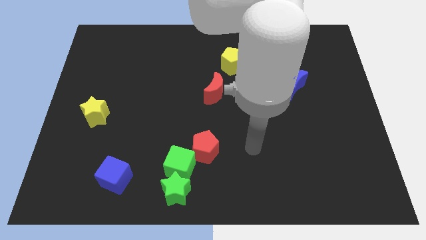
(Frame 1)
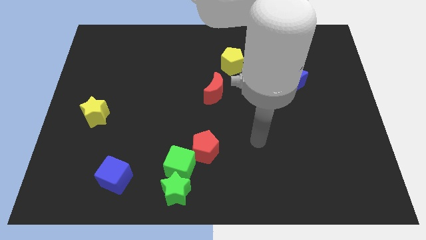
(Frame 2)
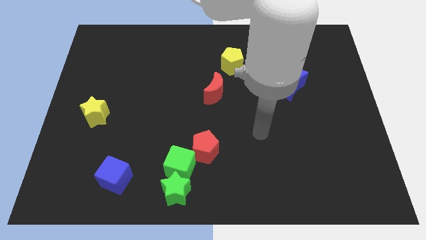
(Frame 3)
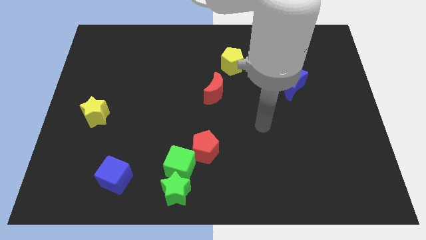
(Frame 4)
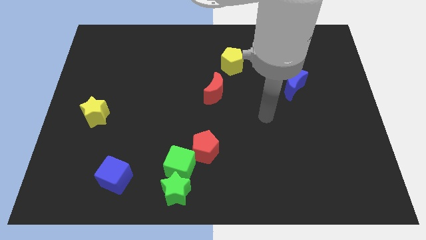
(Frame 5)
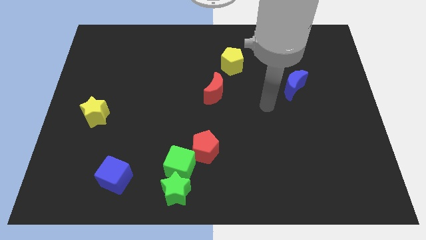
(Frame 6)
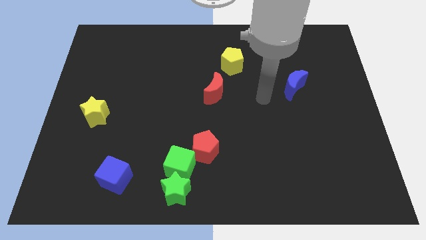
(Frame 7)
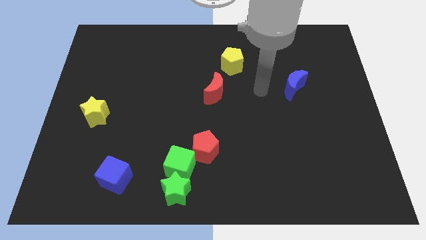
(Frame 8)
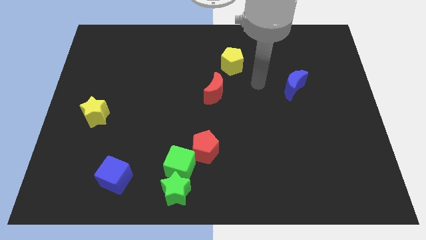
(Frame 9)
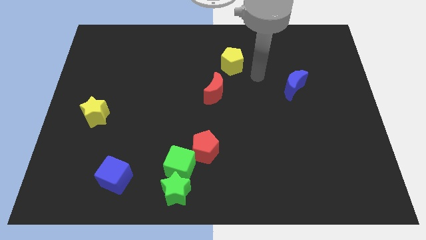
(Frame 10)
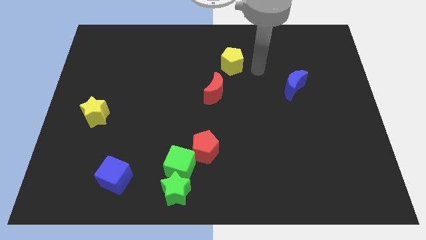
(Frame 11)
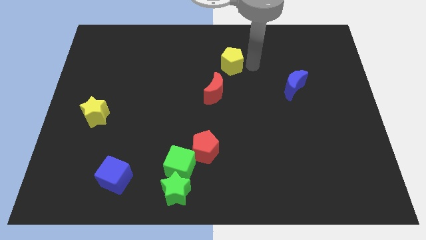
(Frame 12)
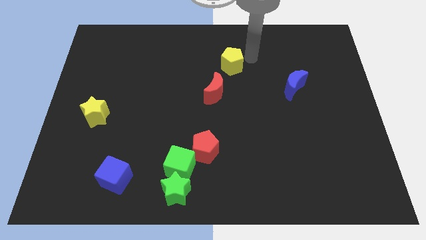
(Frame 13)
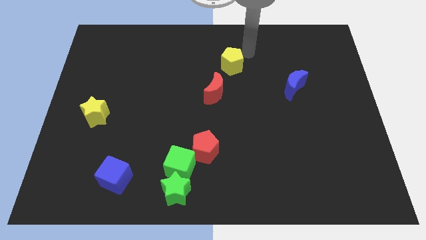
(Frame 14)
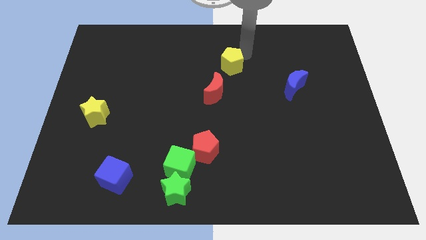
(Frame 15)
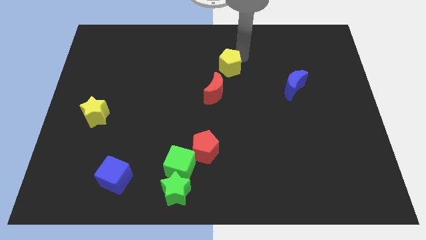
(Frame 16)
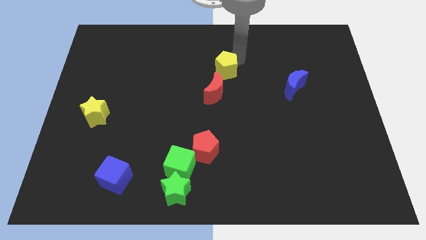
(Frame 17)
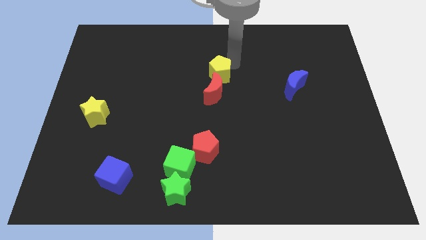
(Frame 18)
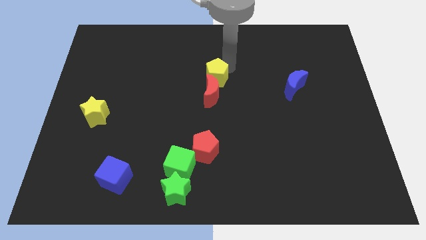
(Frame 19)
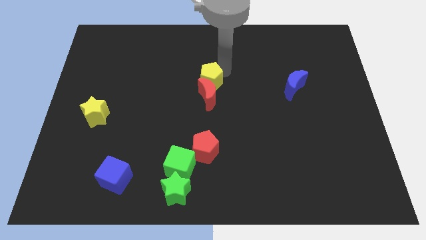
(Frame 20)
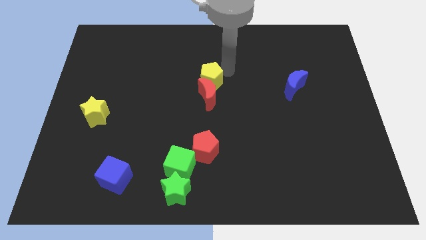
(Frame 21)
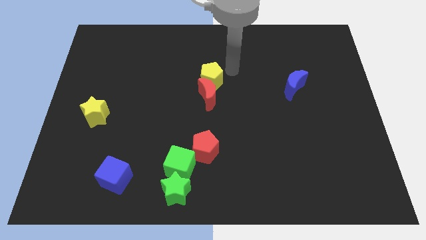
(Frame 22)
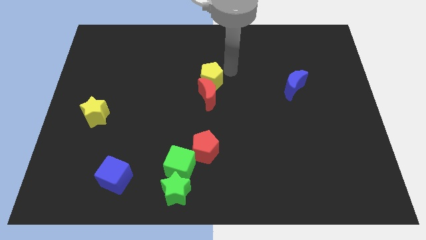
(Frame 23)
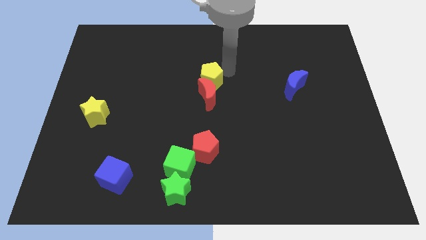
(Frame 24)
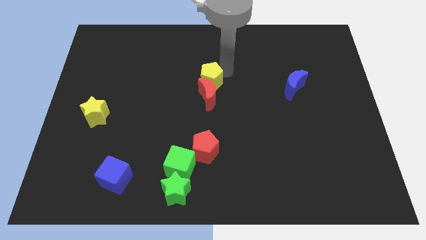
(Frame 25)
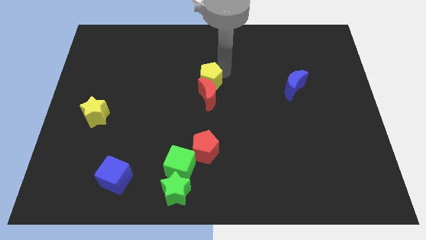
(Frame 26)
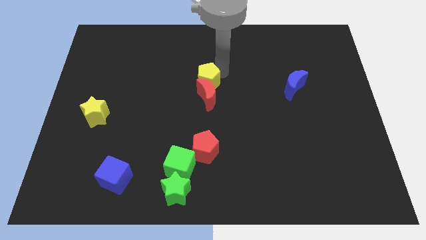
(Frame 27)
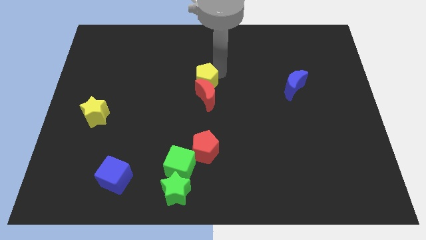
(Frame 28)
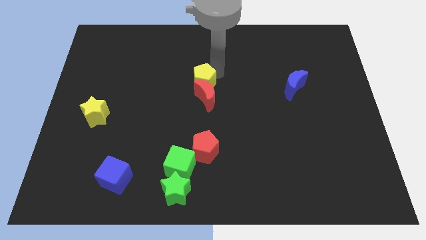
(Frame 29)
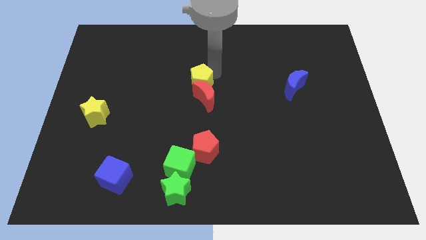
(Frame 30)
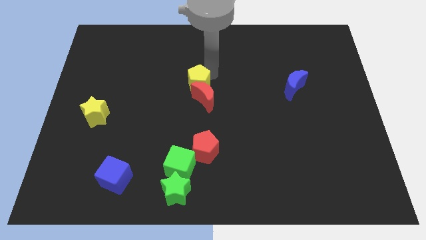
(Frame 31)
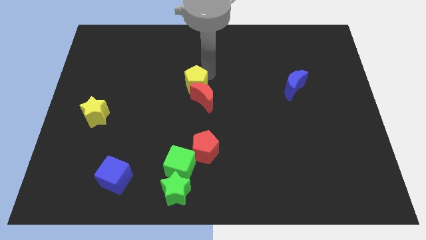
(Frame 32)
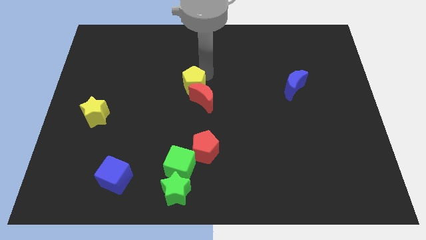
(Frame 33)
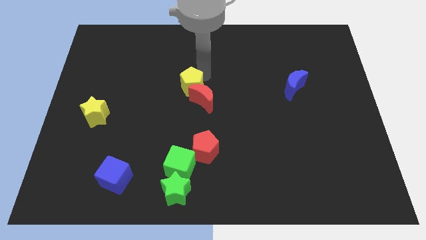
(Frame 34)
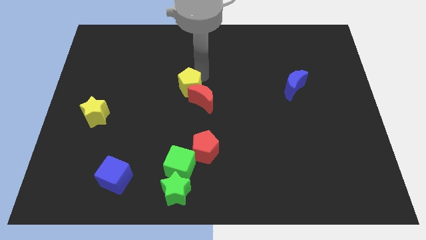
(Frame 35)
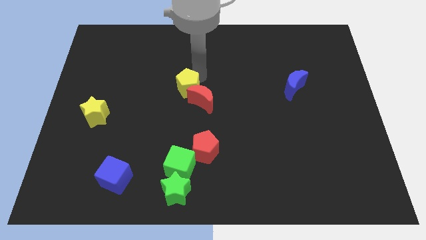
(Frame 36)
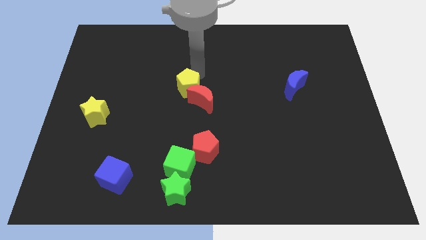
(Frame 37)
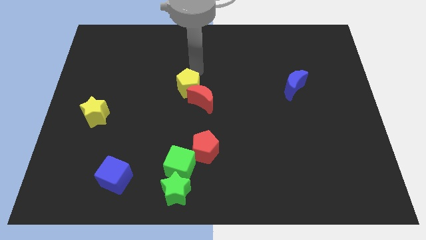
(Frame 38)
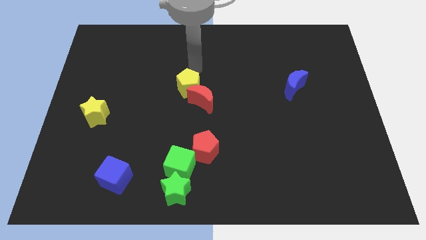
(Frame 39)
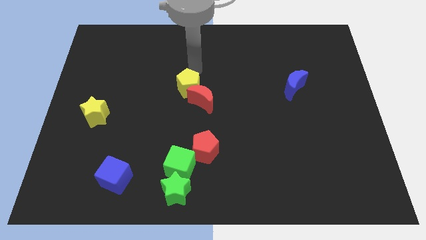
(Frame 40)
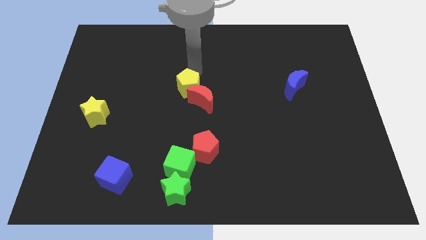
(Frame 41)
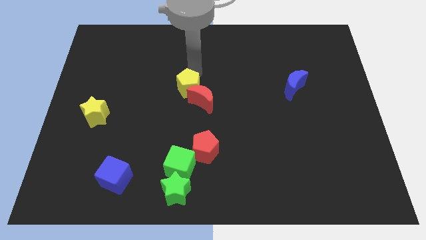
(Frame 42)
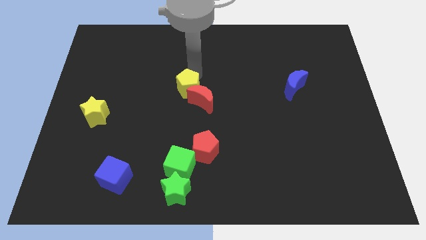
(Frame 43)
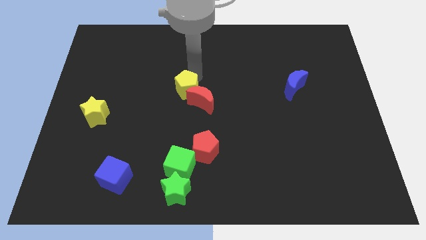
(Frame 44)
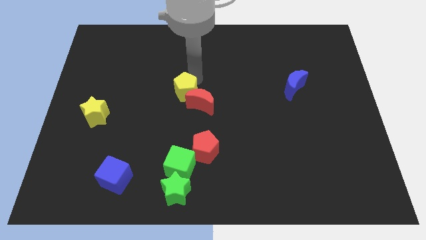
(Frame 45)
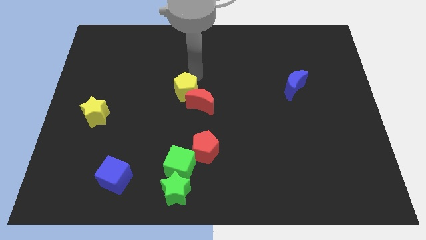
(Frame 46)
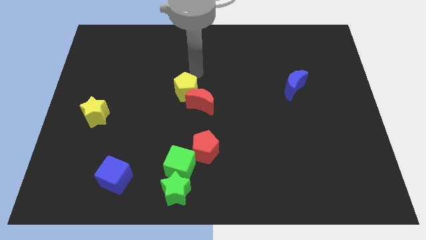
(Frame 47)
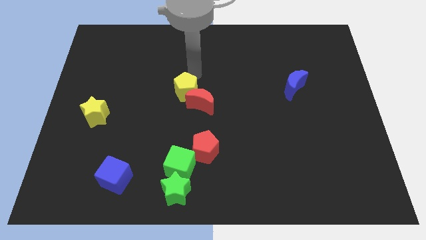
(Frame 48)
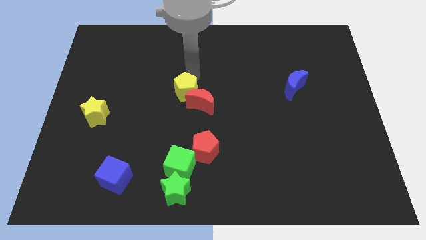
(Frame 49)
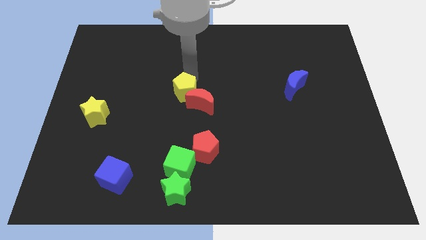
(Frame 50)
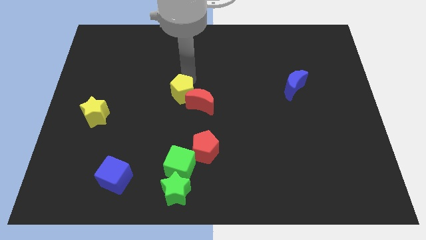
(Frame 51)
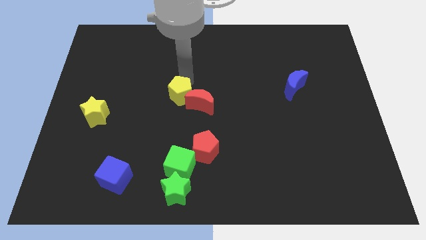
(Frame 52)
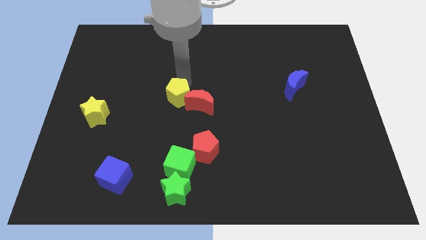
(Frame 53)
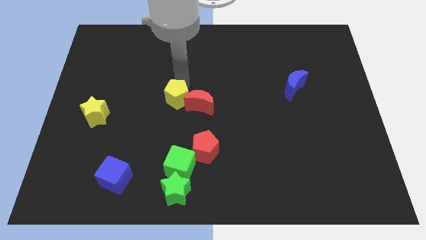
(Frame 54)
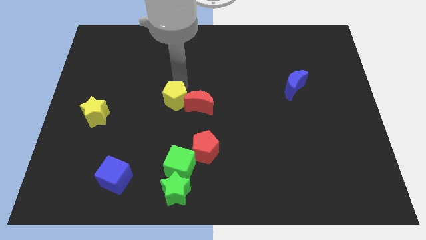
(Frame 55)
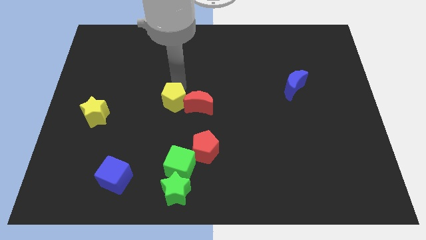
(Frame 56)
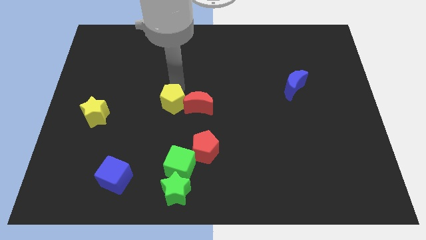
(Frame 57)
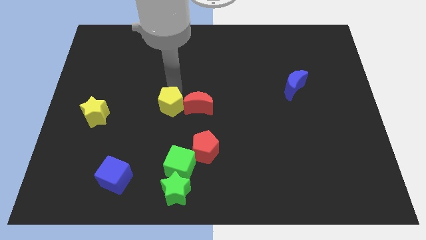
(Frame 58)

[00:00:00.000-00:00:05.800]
move the yellow pentagon diagonally downwards and to the left

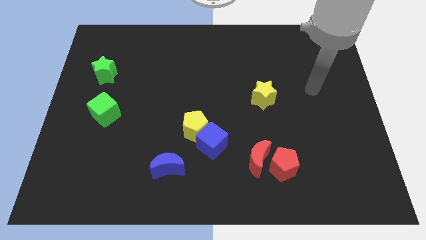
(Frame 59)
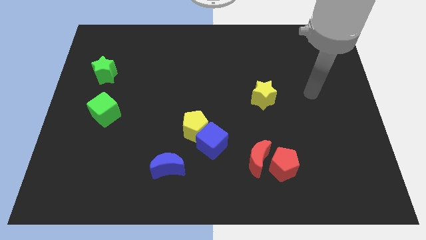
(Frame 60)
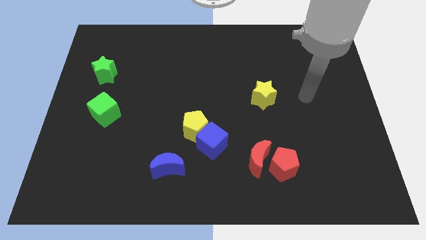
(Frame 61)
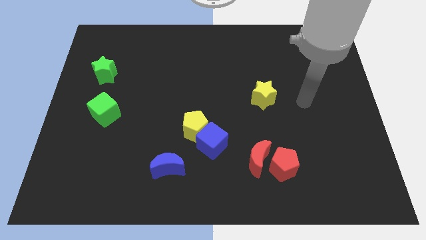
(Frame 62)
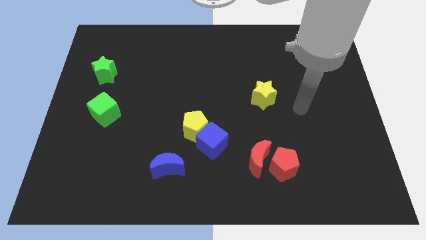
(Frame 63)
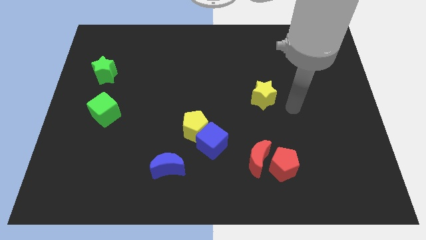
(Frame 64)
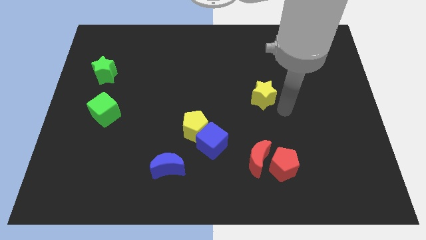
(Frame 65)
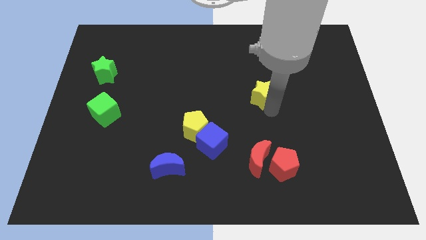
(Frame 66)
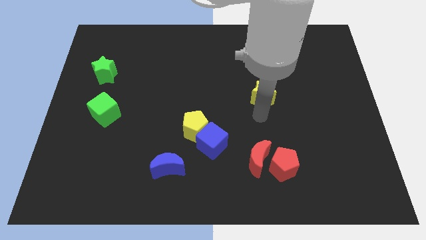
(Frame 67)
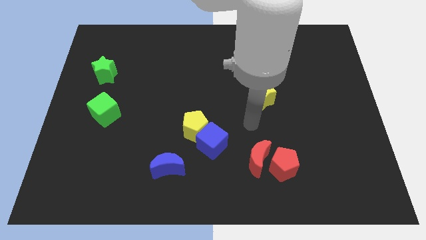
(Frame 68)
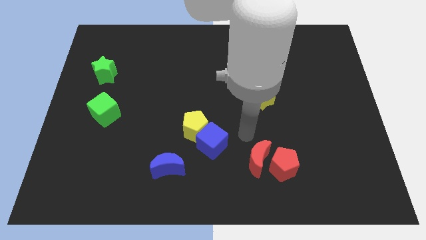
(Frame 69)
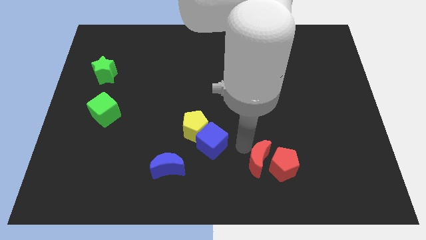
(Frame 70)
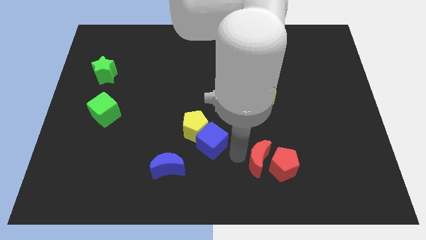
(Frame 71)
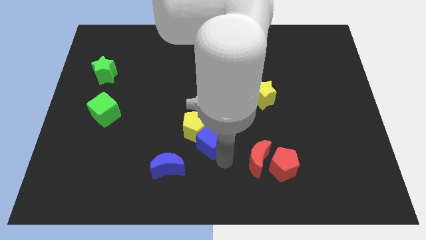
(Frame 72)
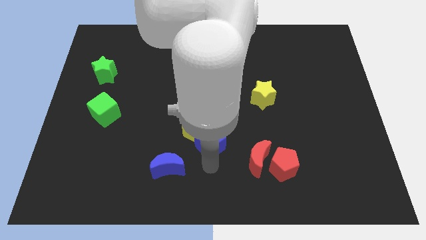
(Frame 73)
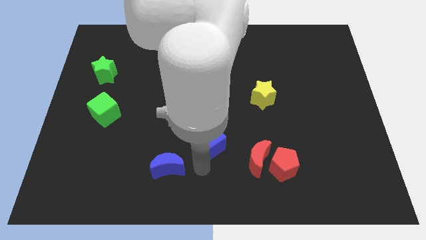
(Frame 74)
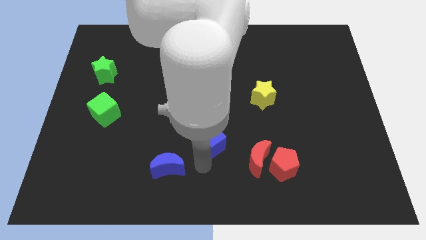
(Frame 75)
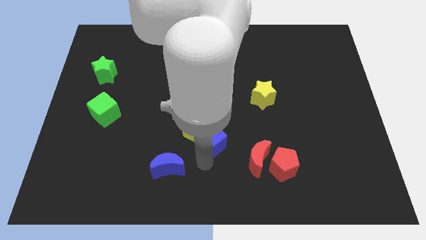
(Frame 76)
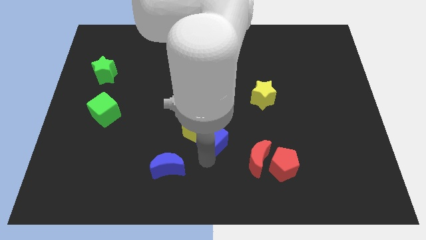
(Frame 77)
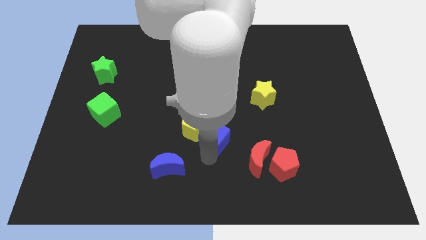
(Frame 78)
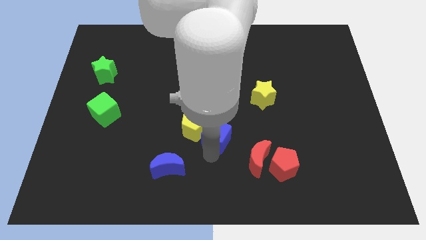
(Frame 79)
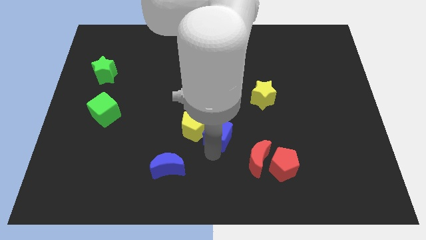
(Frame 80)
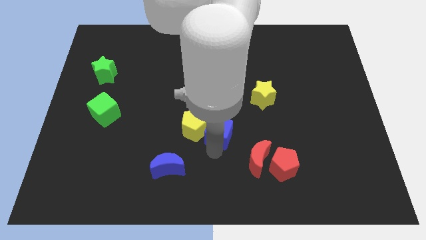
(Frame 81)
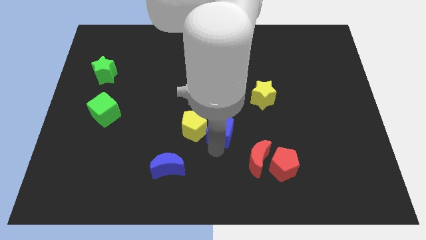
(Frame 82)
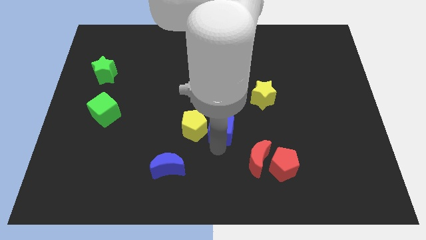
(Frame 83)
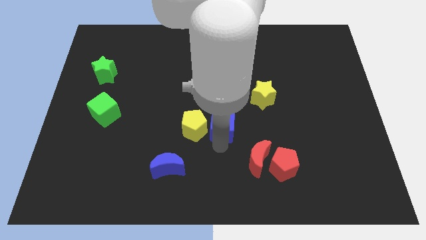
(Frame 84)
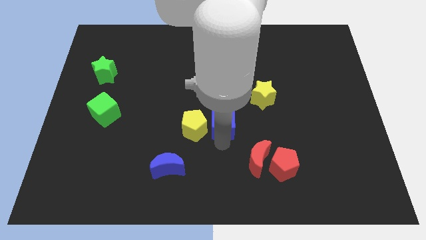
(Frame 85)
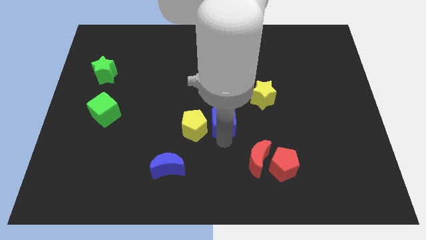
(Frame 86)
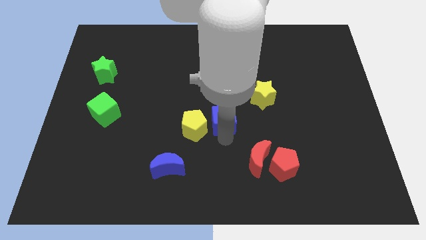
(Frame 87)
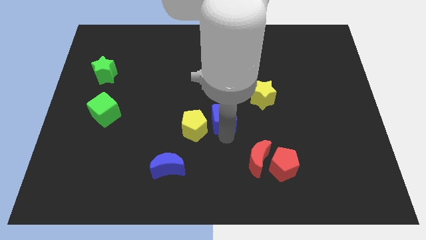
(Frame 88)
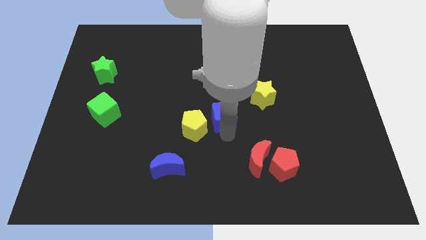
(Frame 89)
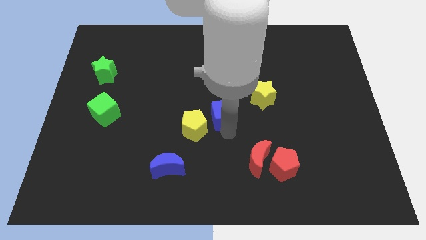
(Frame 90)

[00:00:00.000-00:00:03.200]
slightly slide the blue cube upwards
